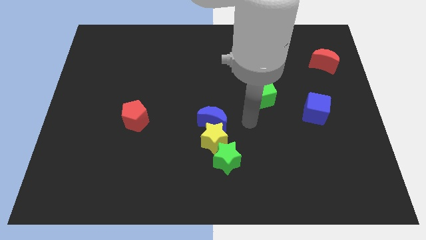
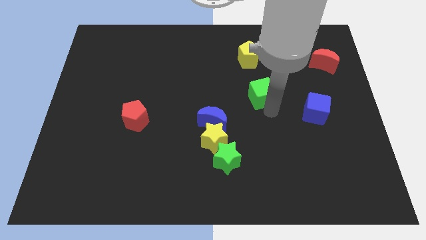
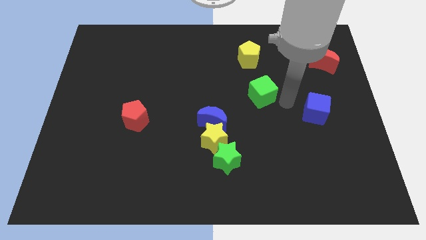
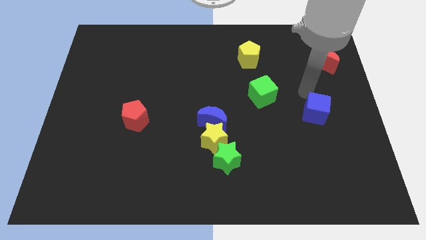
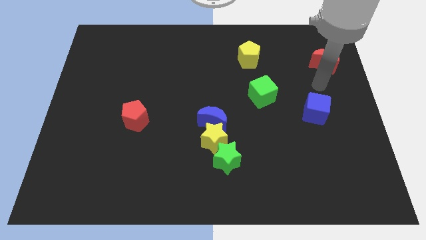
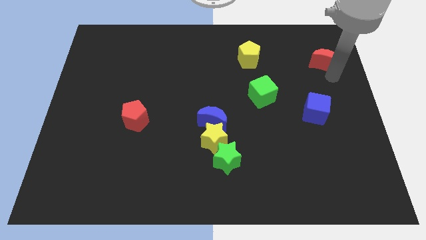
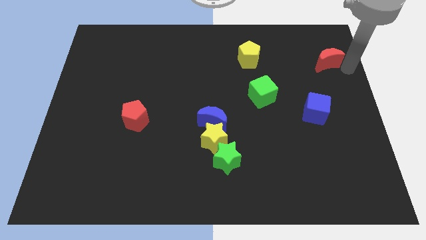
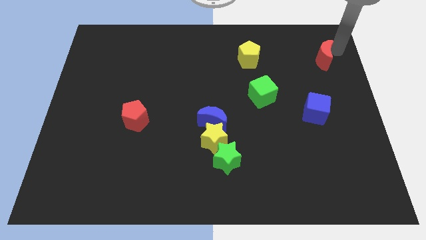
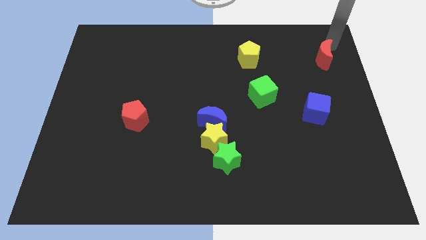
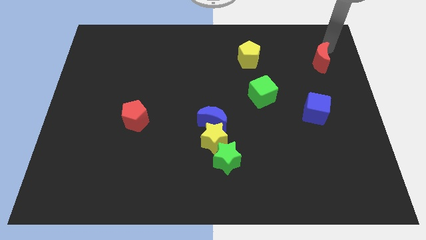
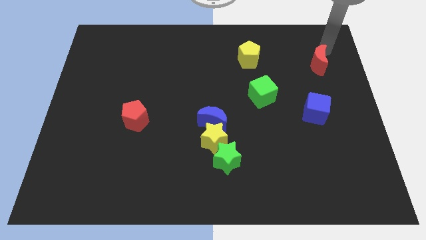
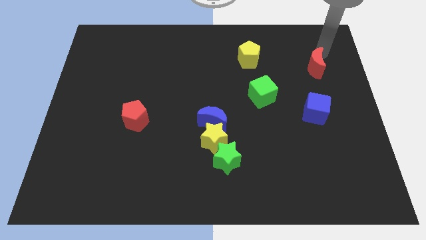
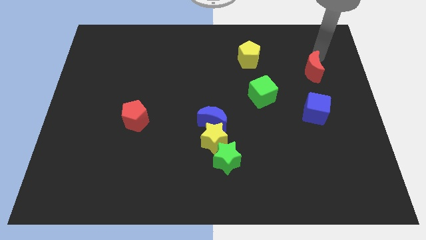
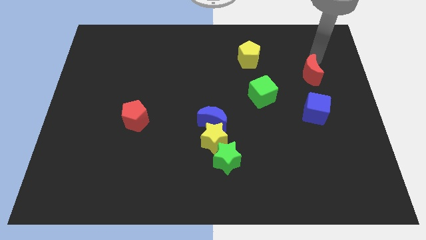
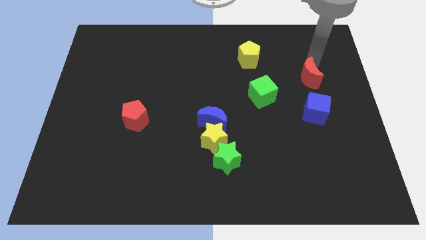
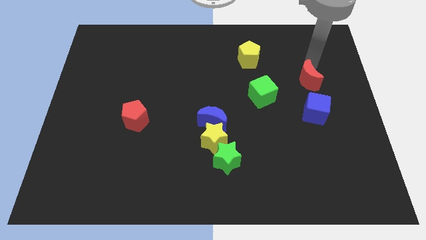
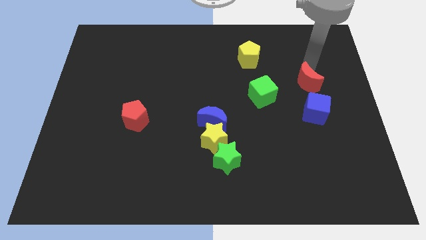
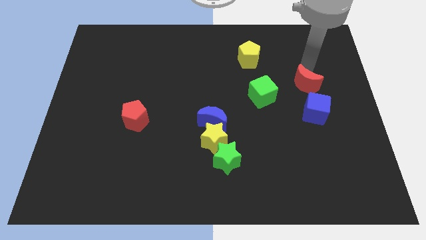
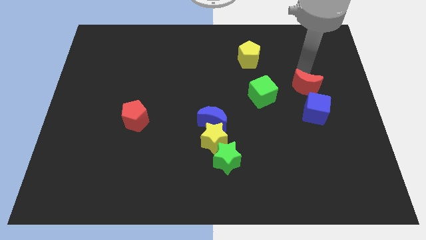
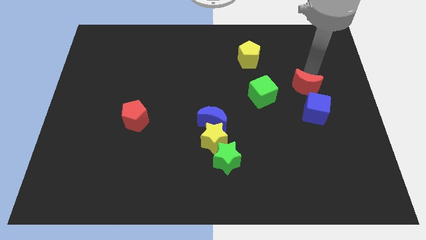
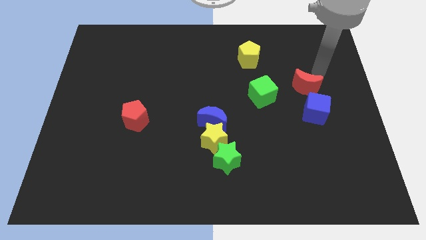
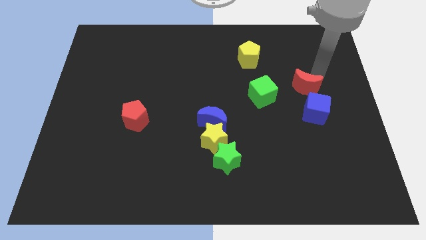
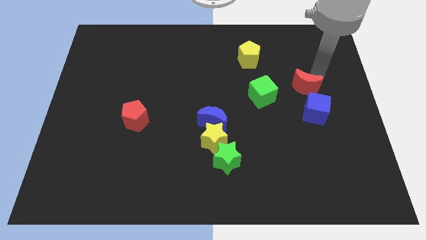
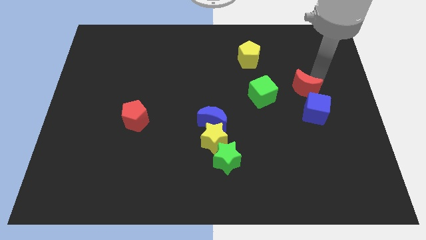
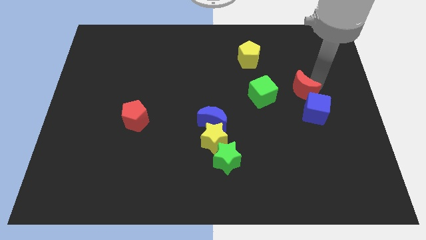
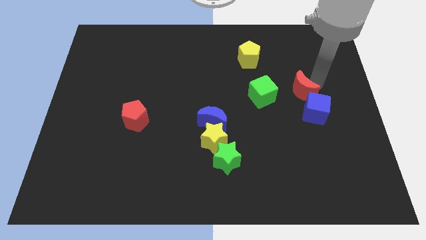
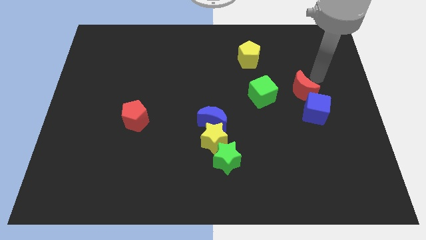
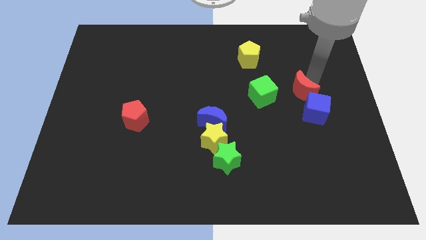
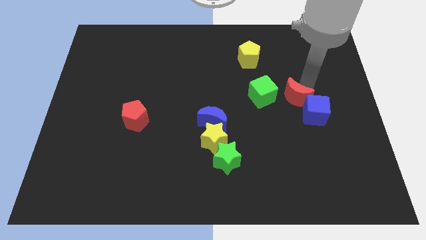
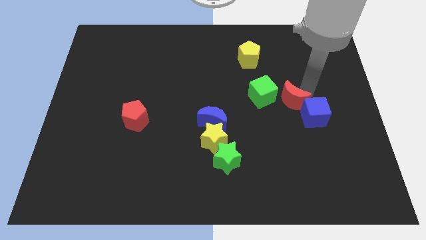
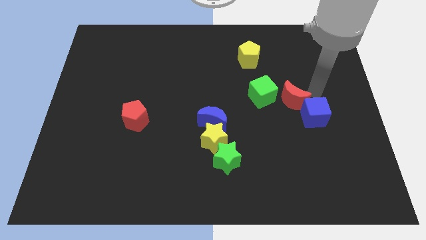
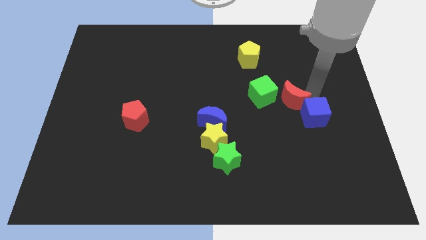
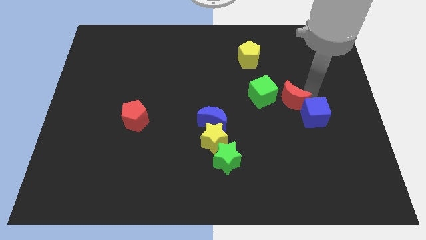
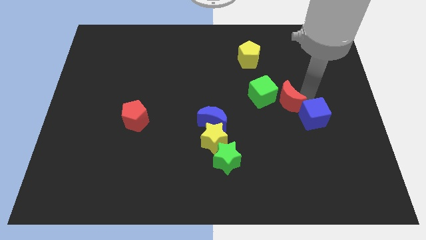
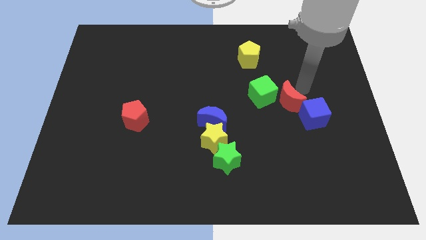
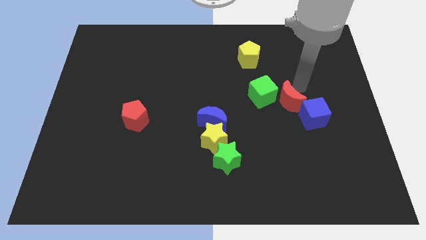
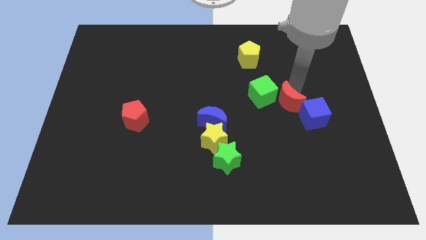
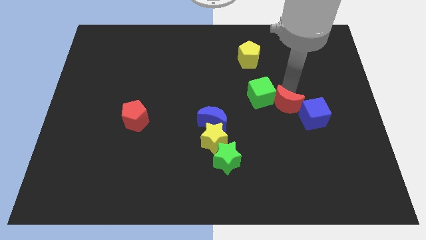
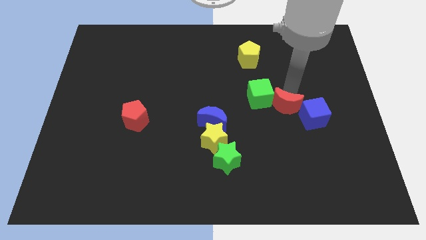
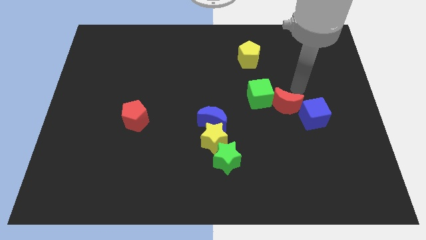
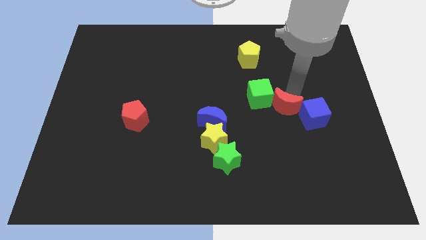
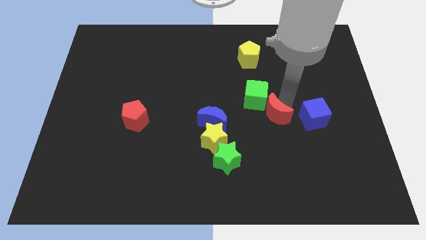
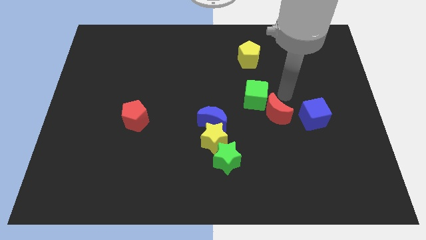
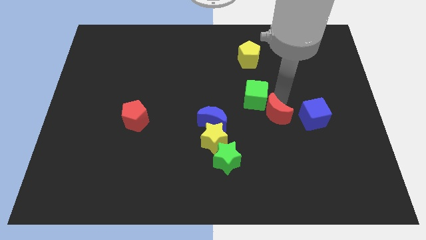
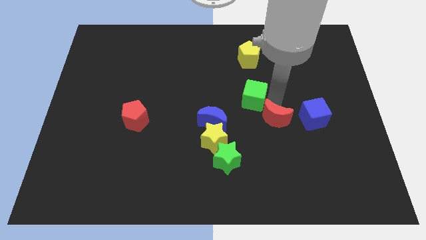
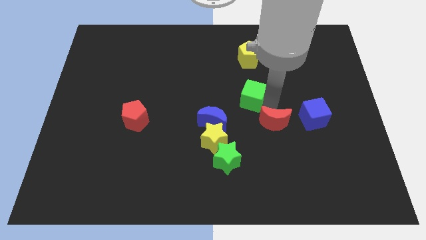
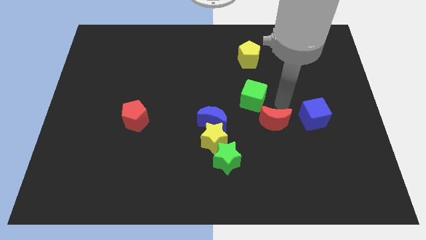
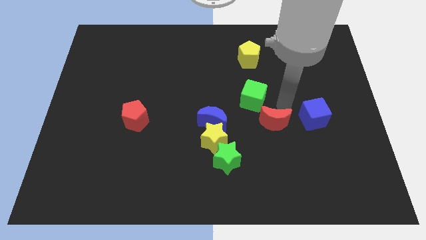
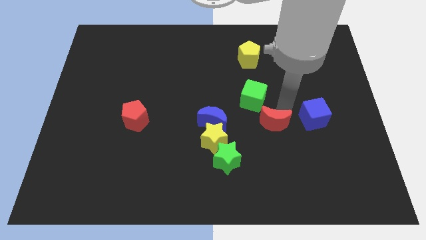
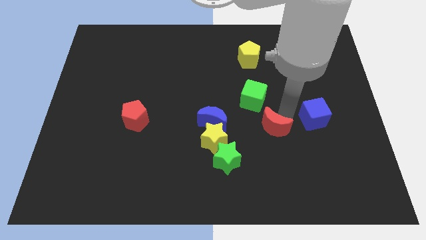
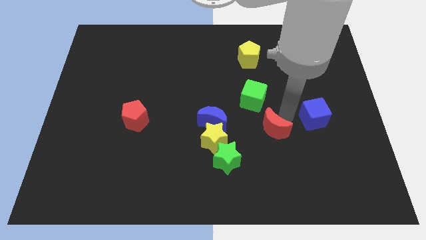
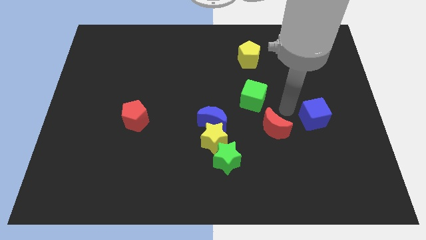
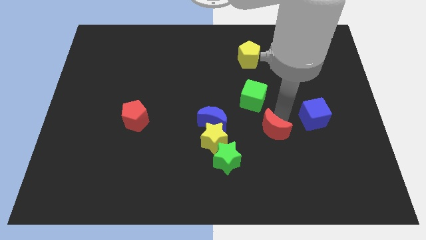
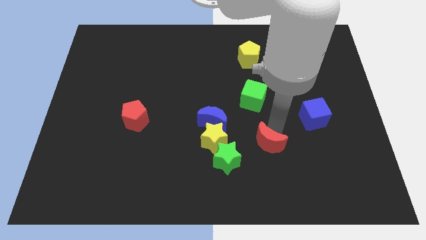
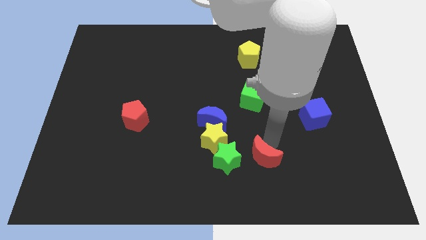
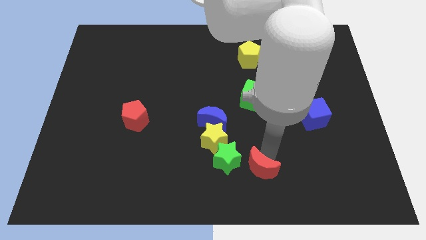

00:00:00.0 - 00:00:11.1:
push the red moon to the bottom

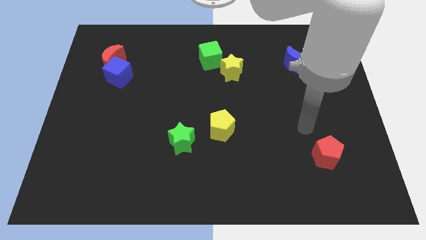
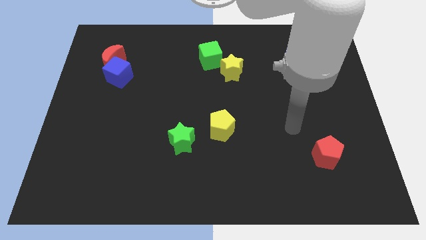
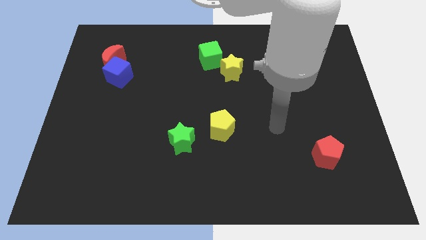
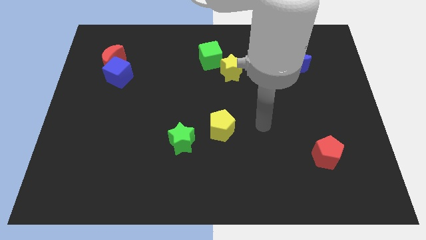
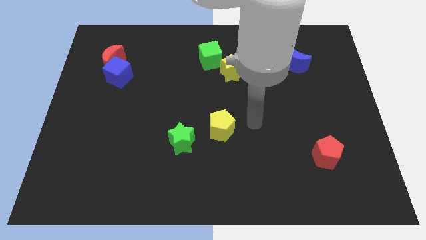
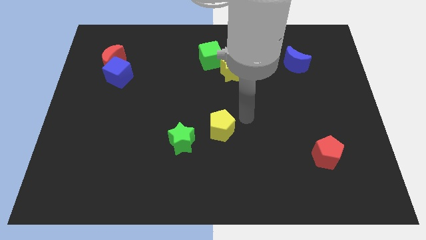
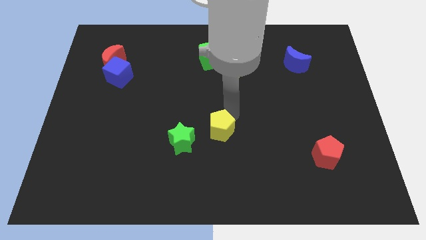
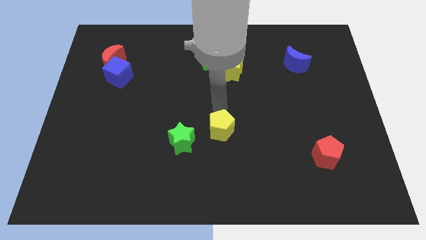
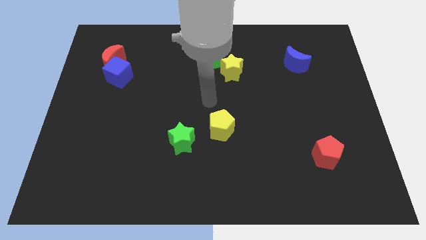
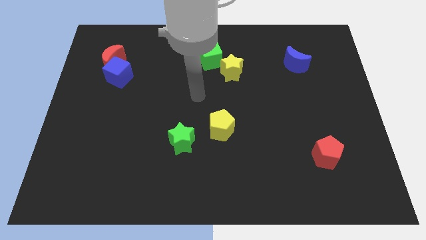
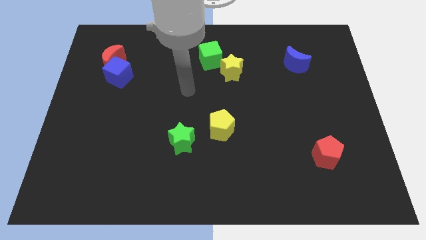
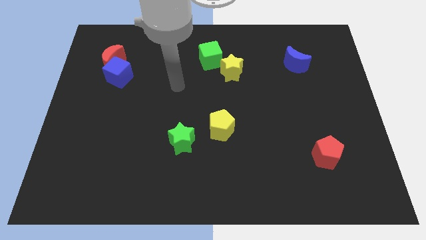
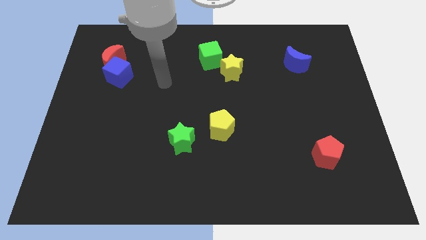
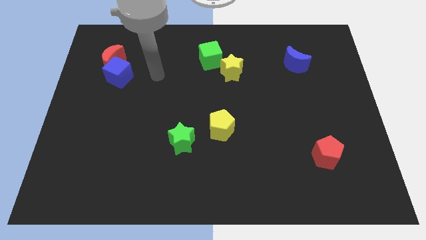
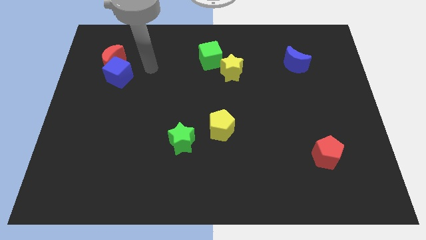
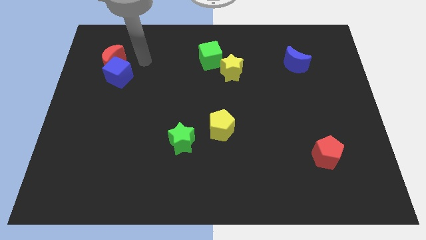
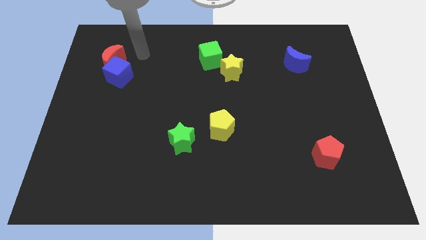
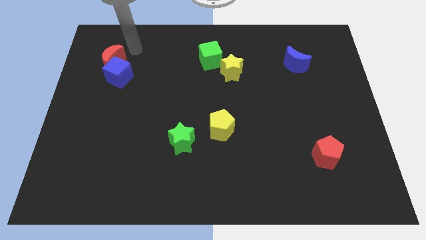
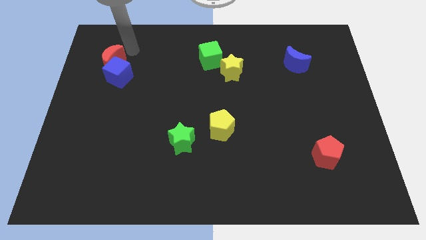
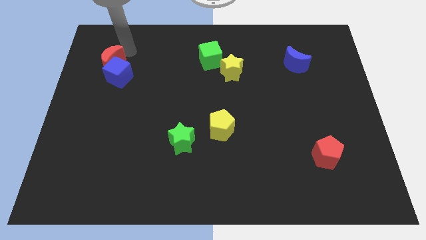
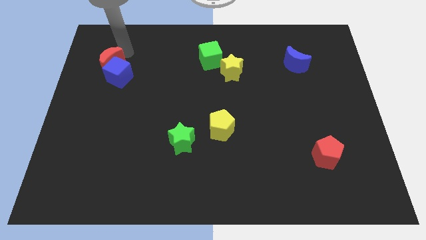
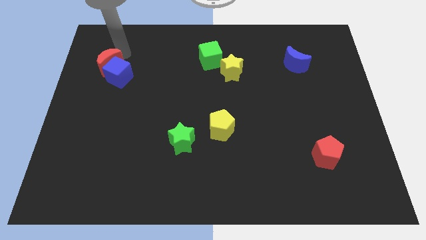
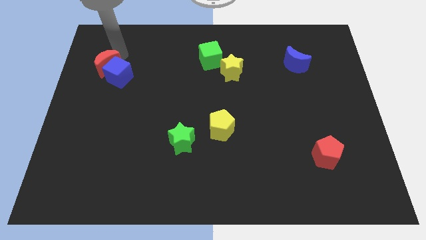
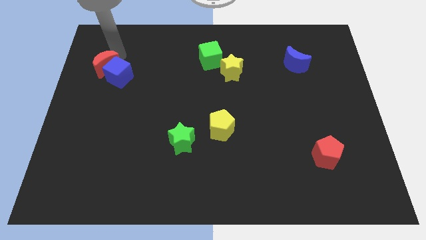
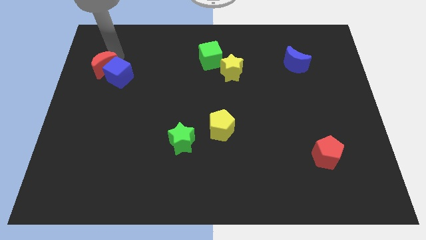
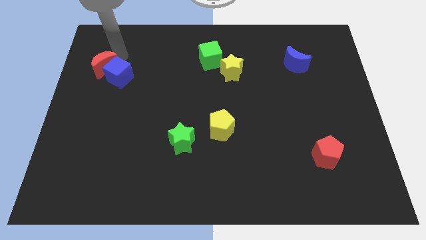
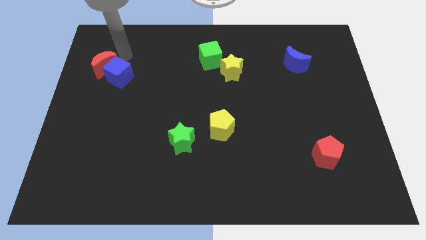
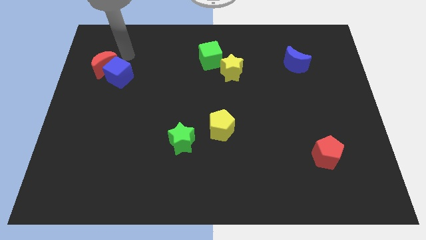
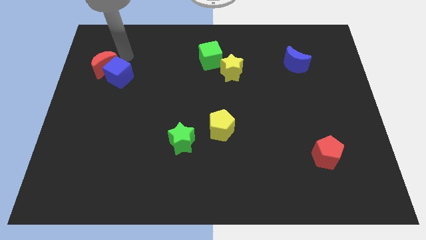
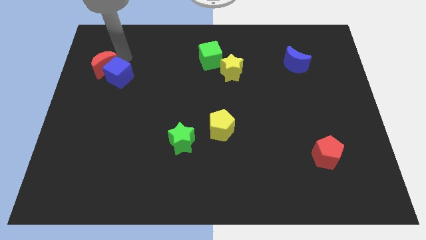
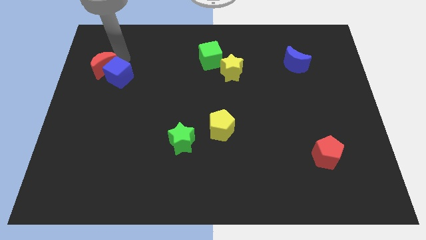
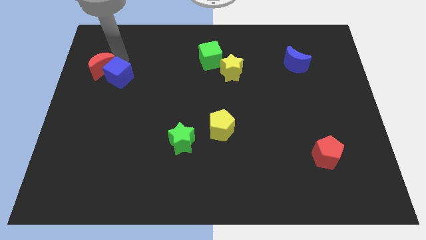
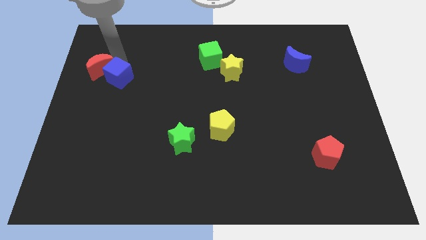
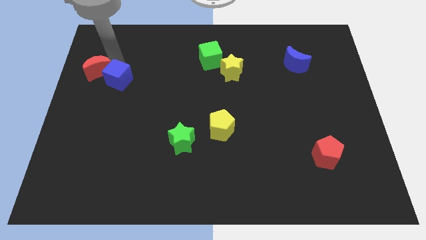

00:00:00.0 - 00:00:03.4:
put the red moon to the left side of the board
